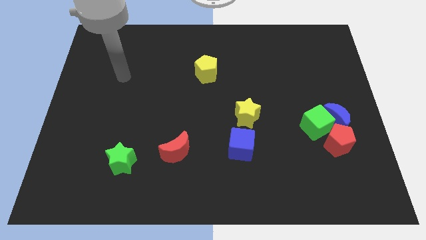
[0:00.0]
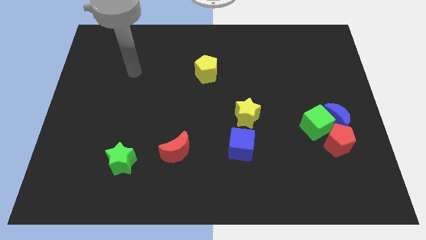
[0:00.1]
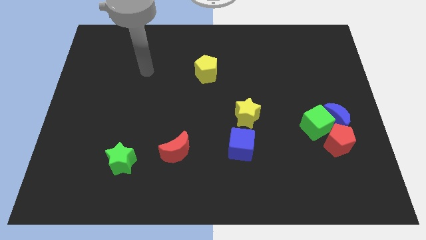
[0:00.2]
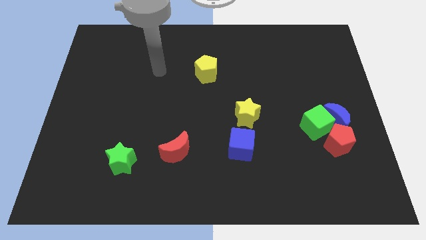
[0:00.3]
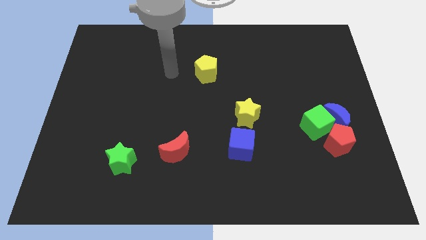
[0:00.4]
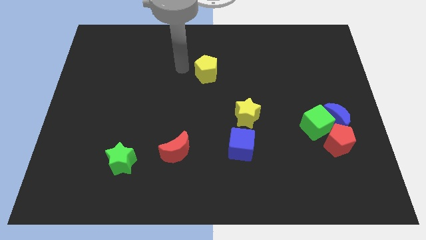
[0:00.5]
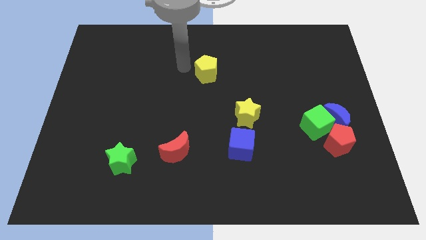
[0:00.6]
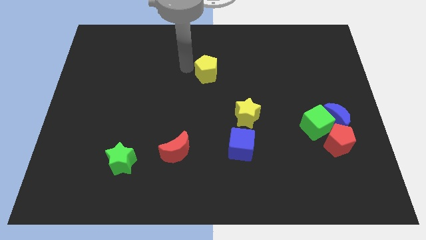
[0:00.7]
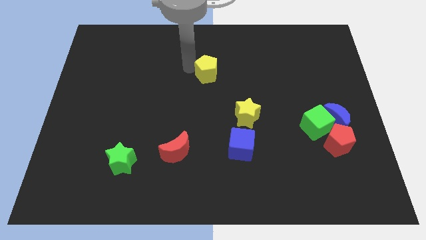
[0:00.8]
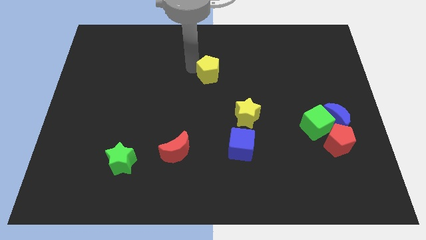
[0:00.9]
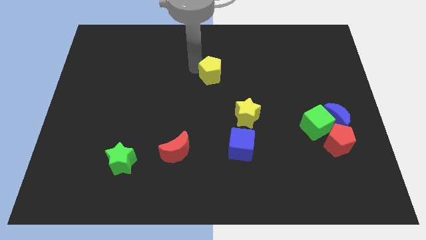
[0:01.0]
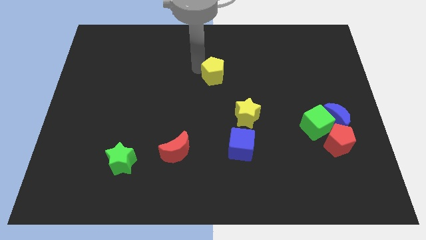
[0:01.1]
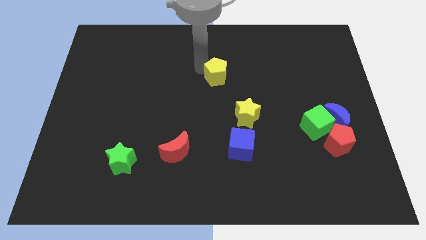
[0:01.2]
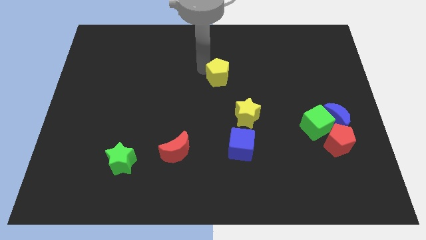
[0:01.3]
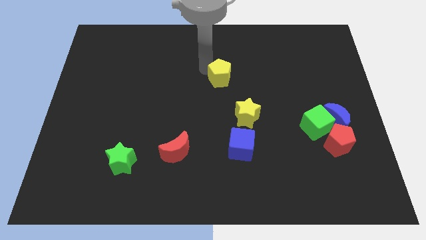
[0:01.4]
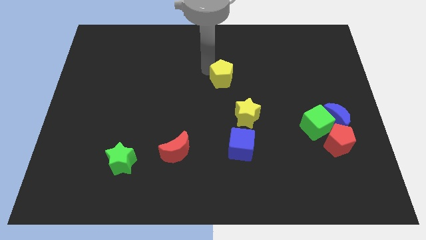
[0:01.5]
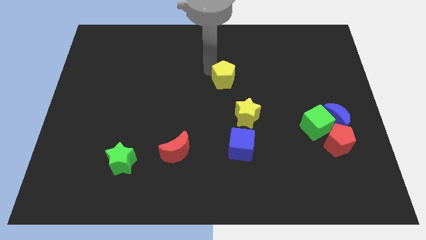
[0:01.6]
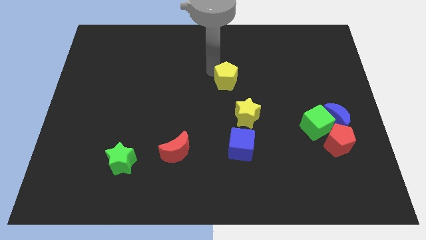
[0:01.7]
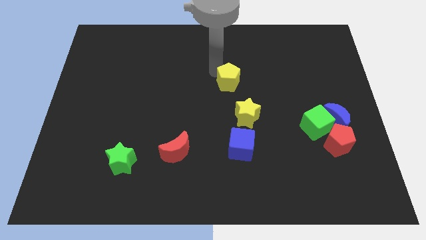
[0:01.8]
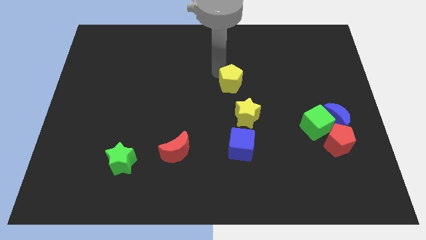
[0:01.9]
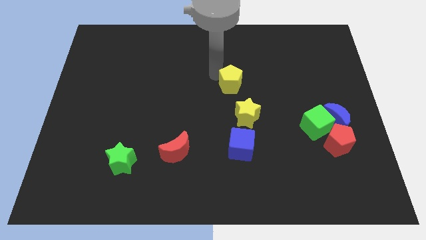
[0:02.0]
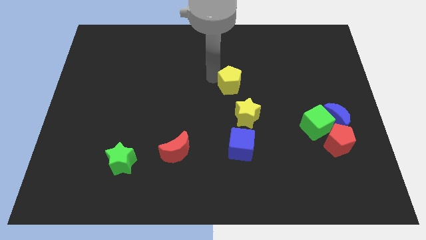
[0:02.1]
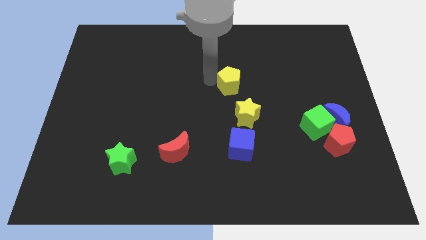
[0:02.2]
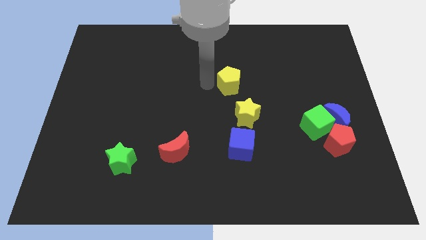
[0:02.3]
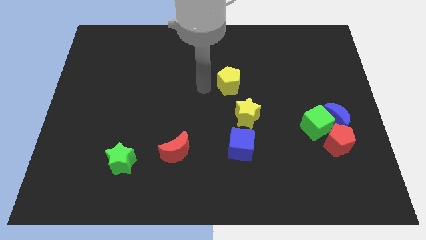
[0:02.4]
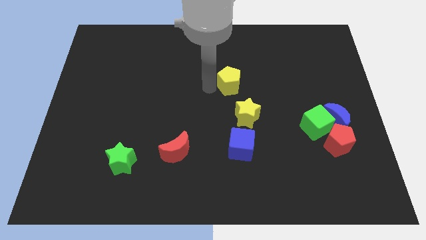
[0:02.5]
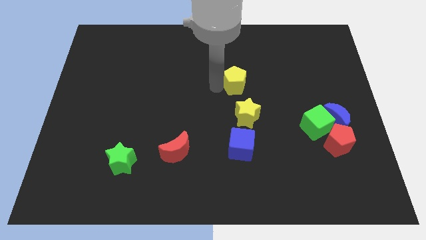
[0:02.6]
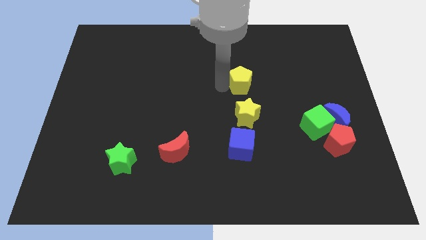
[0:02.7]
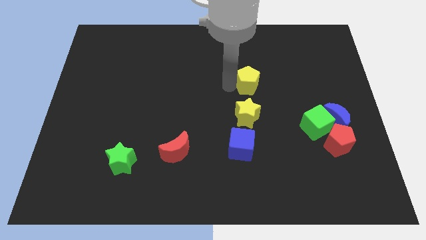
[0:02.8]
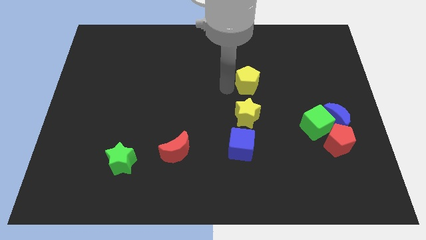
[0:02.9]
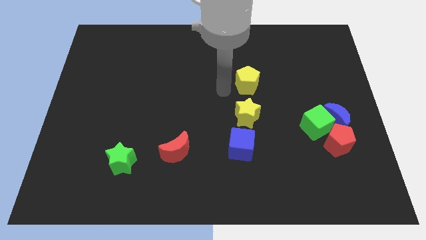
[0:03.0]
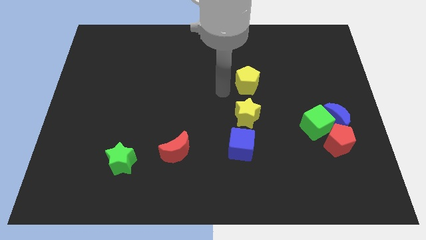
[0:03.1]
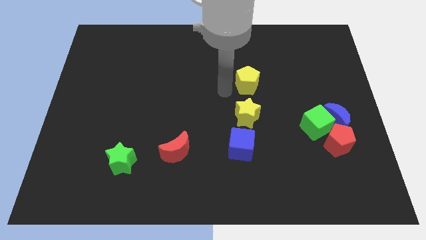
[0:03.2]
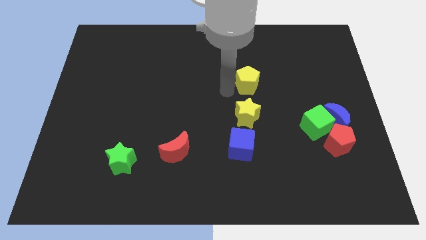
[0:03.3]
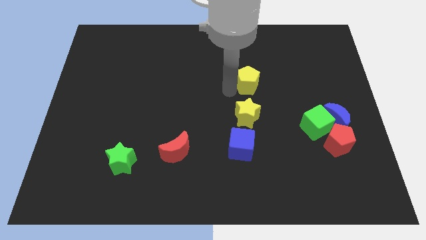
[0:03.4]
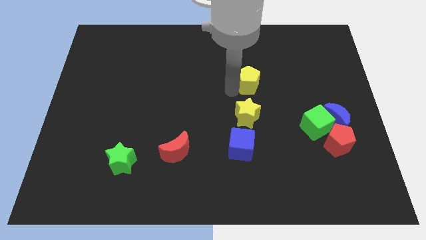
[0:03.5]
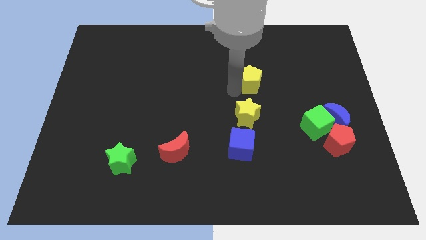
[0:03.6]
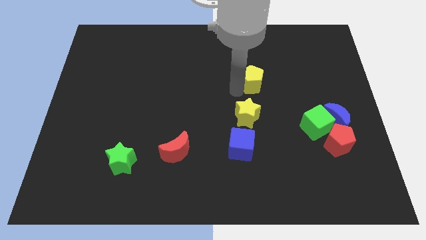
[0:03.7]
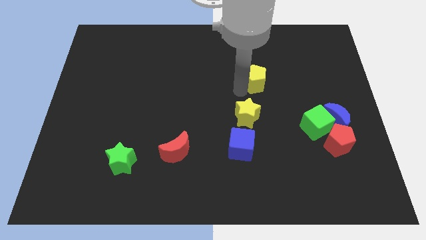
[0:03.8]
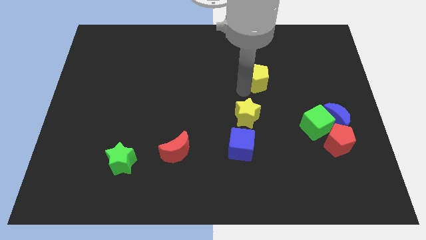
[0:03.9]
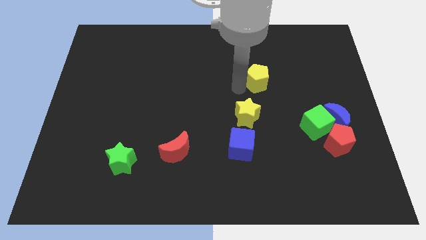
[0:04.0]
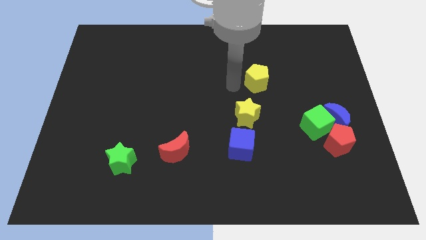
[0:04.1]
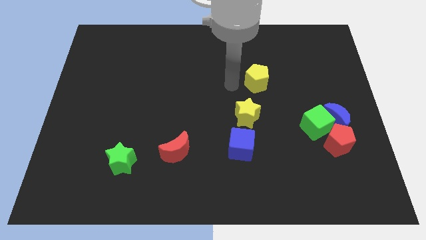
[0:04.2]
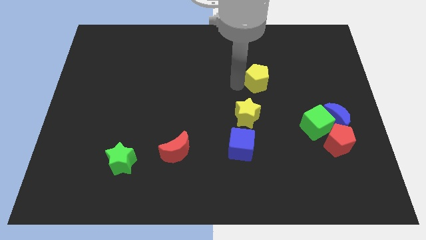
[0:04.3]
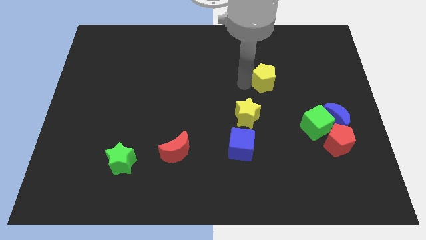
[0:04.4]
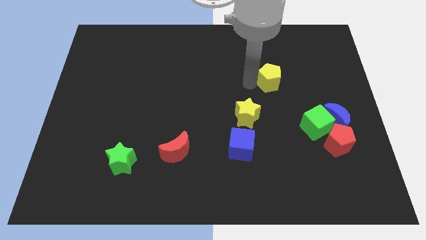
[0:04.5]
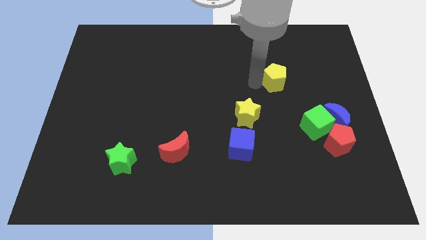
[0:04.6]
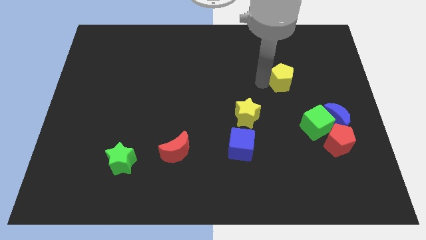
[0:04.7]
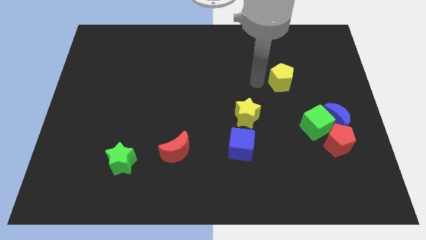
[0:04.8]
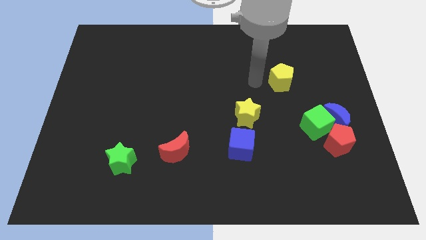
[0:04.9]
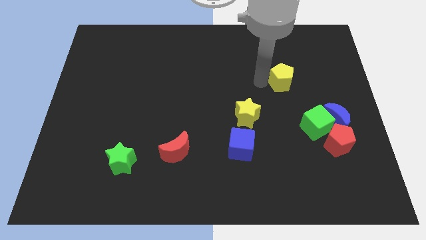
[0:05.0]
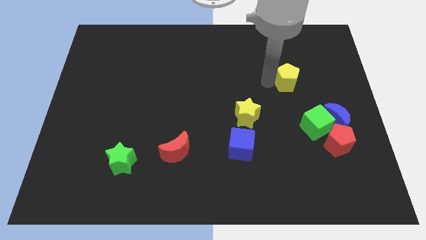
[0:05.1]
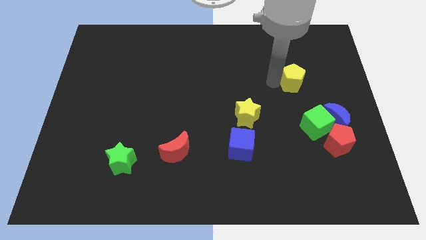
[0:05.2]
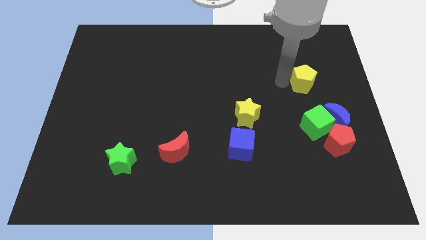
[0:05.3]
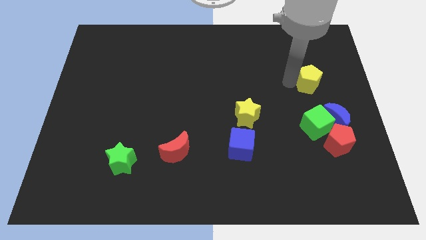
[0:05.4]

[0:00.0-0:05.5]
slide the yellow pentagon above the blue moon

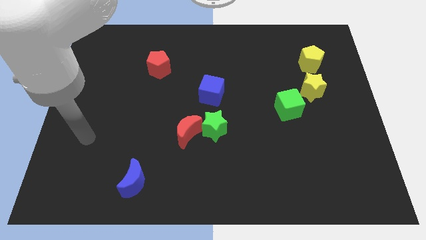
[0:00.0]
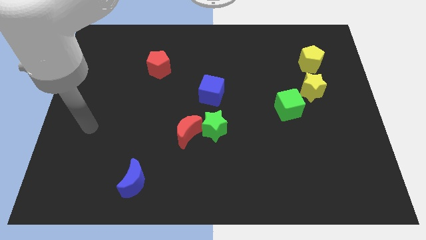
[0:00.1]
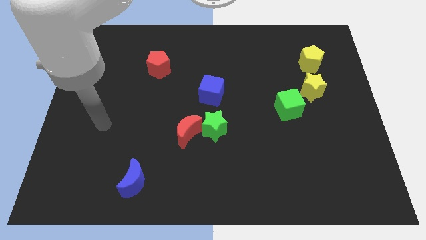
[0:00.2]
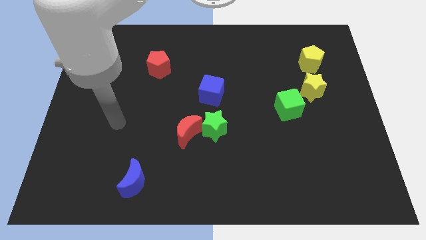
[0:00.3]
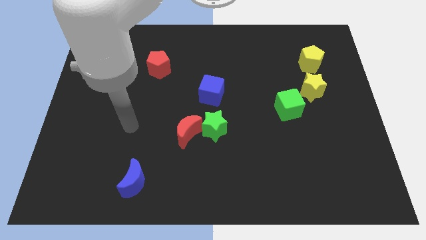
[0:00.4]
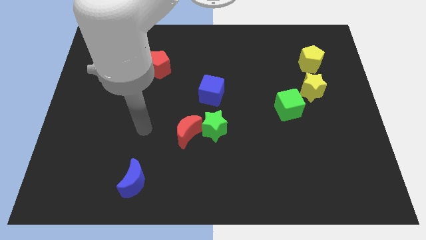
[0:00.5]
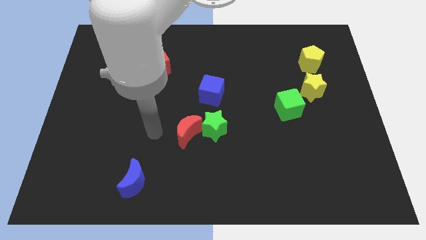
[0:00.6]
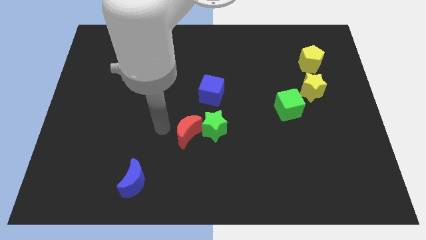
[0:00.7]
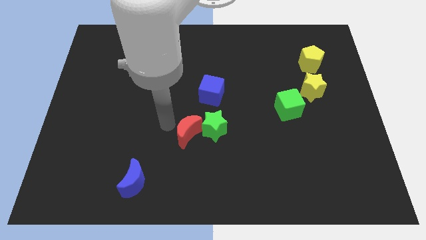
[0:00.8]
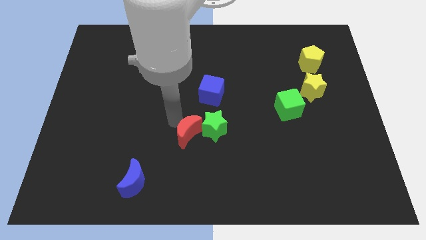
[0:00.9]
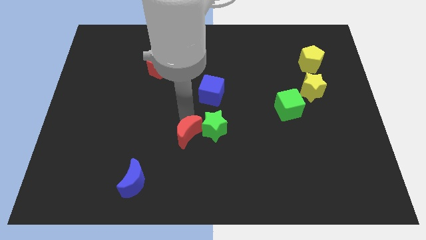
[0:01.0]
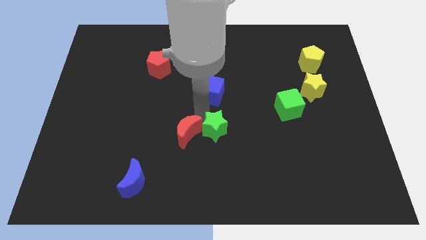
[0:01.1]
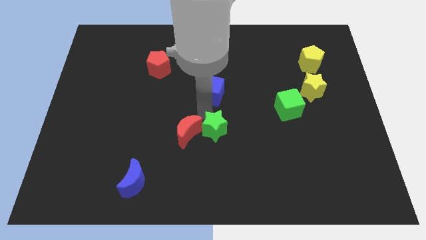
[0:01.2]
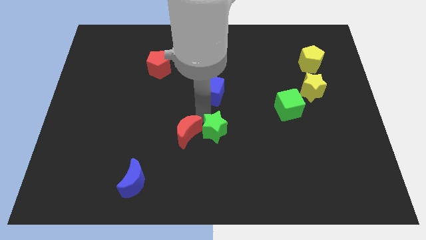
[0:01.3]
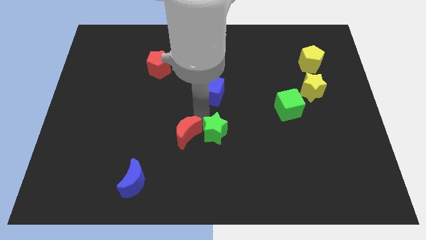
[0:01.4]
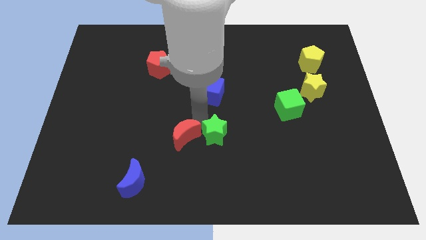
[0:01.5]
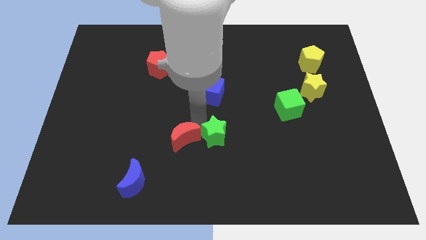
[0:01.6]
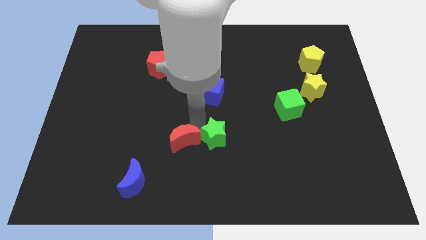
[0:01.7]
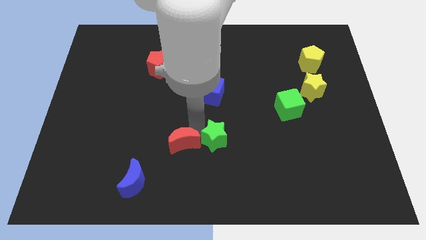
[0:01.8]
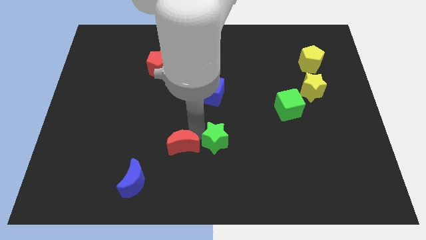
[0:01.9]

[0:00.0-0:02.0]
move the red moon to the top right of the blue moon
